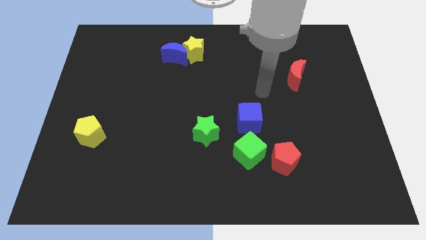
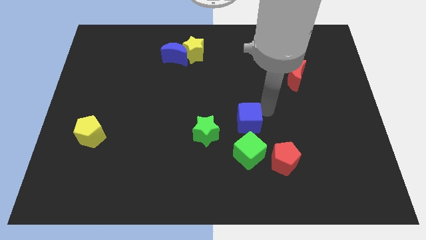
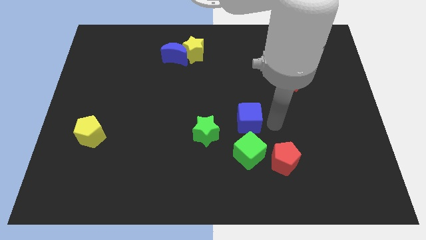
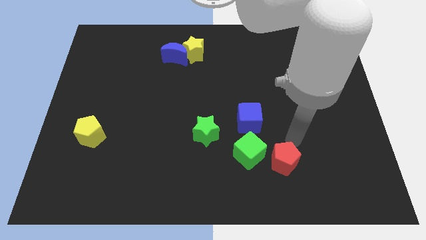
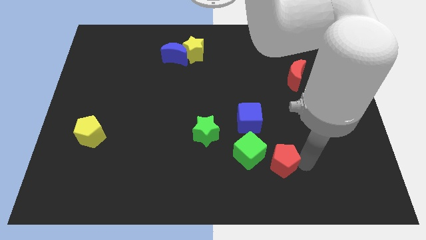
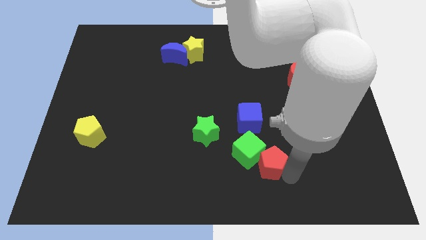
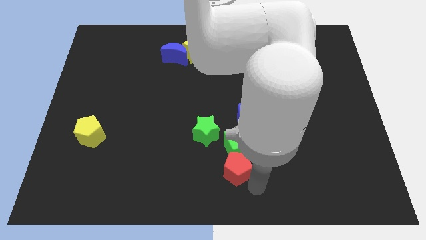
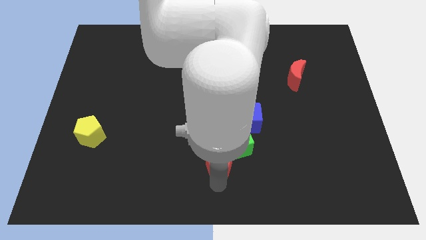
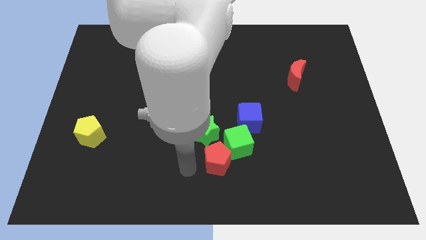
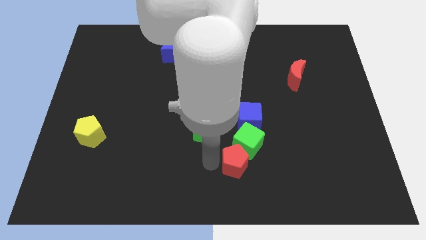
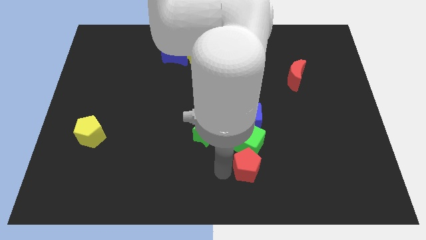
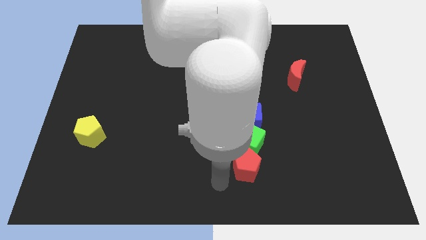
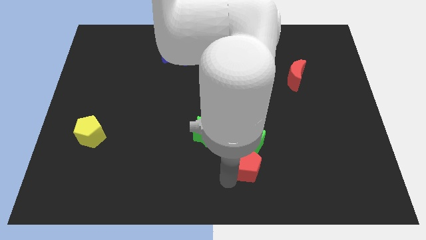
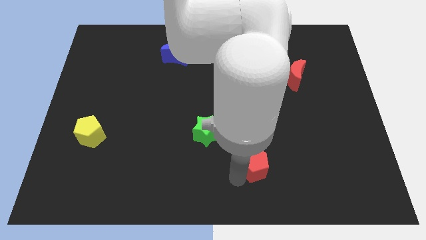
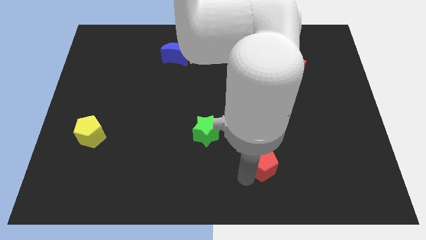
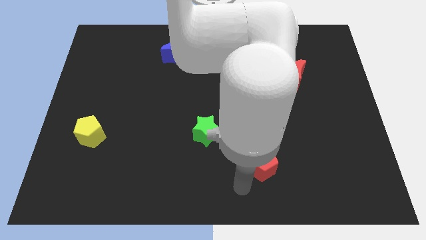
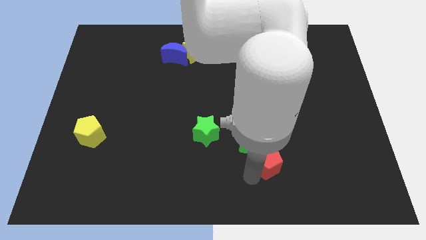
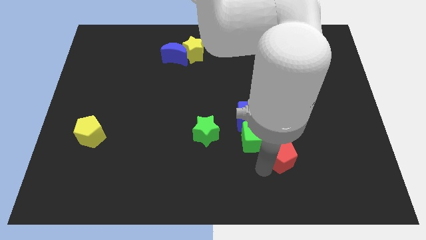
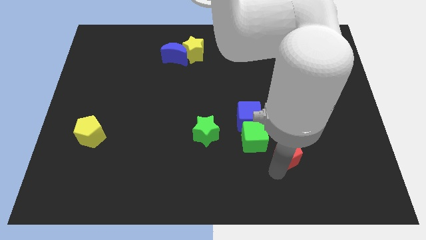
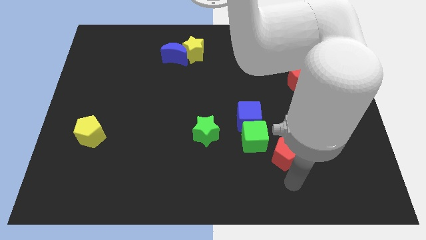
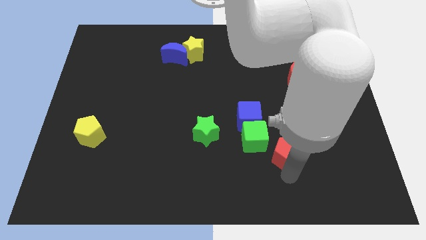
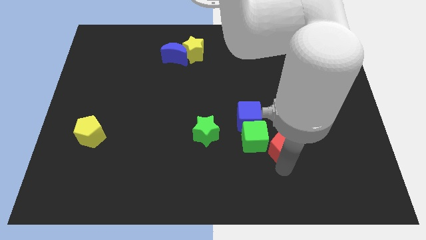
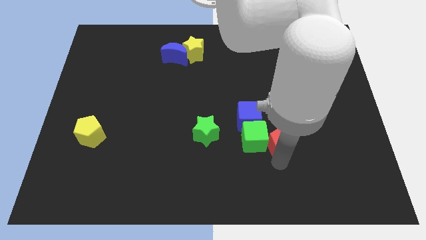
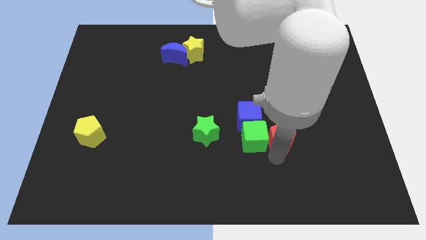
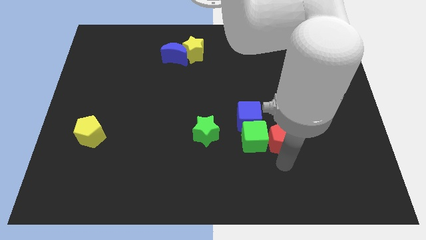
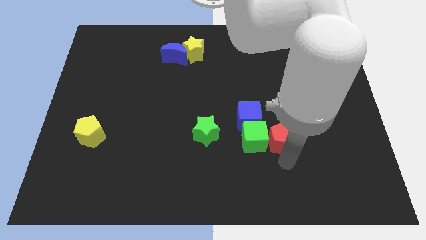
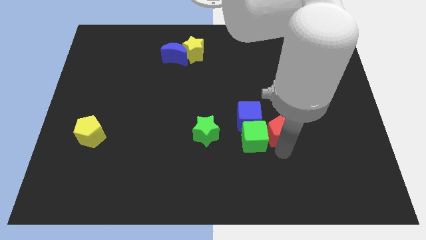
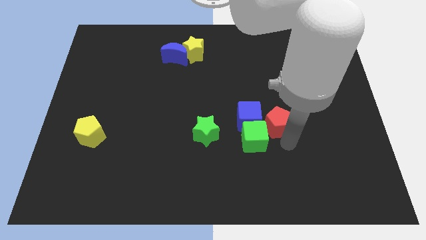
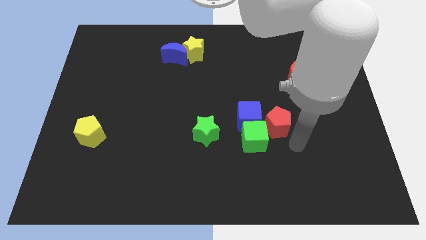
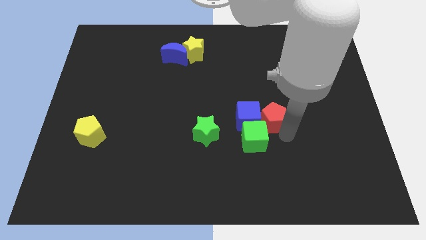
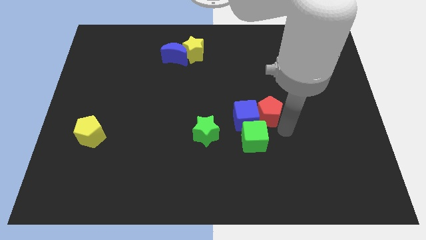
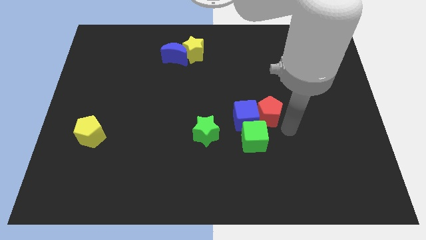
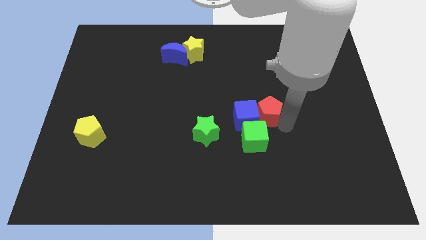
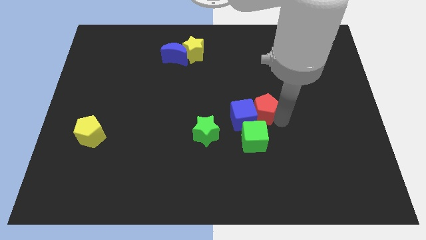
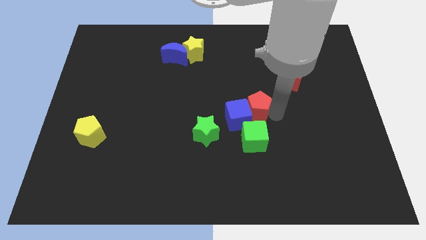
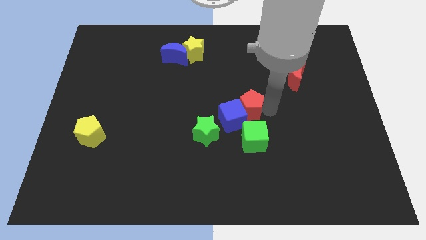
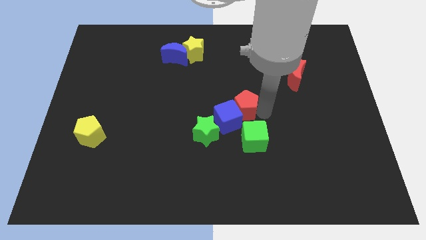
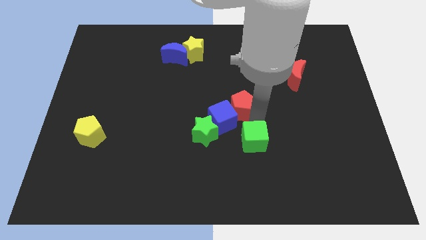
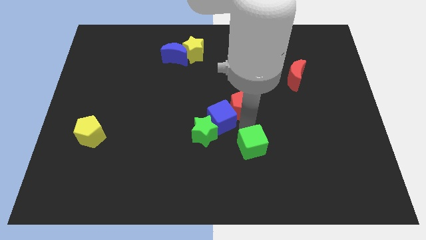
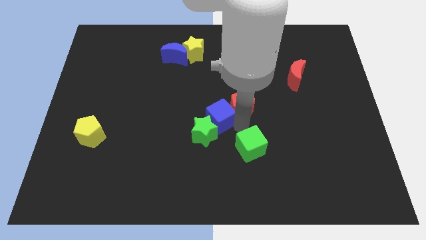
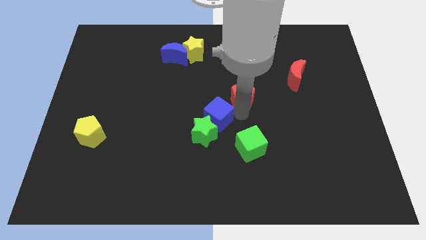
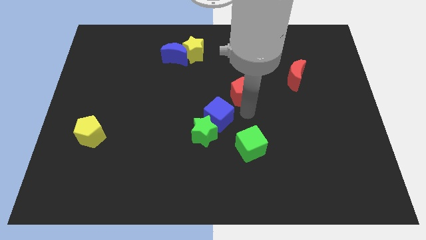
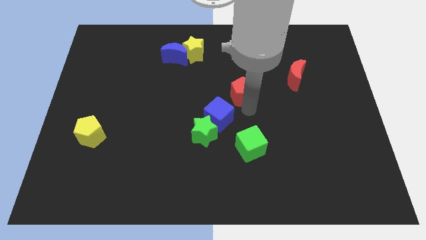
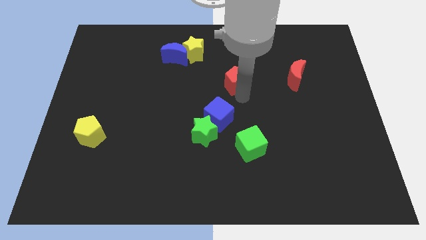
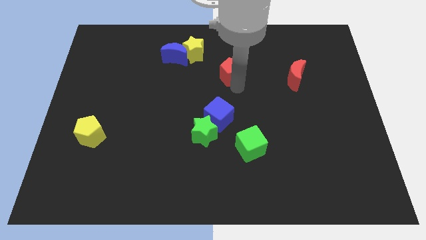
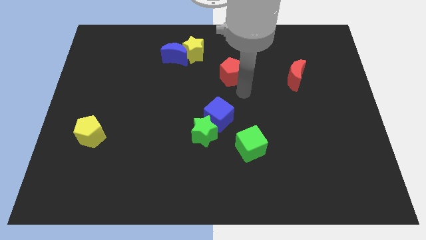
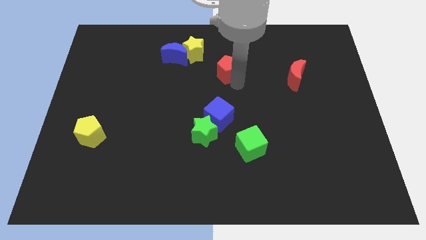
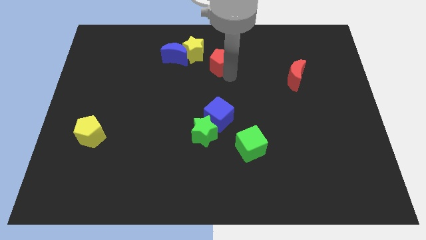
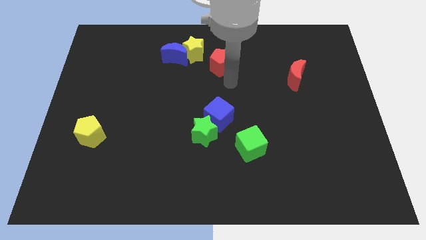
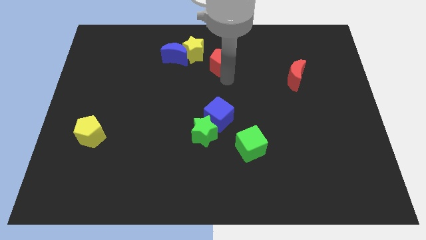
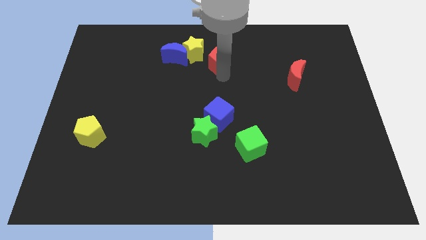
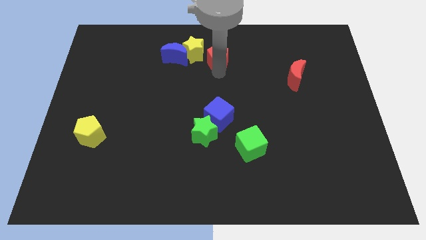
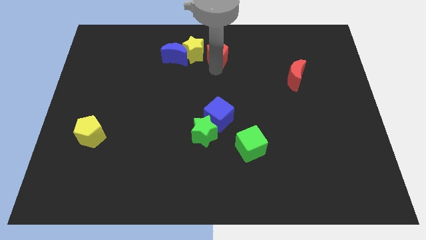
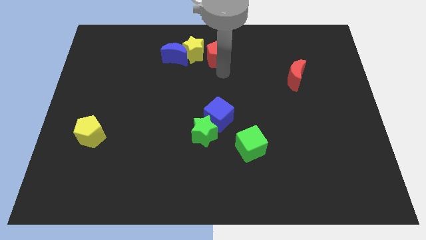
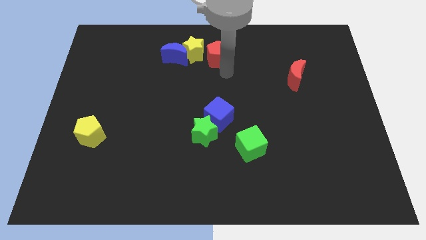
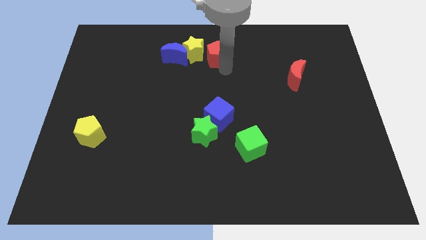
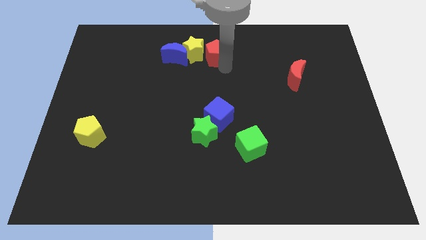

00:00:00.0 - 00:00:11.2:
push the red pentagon to the top
